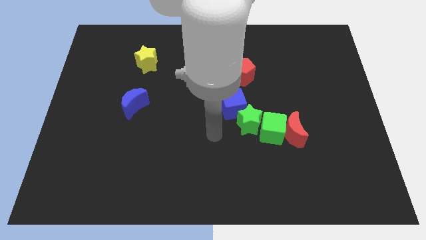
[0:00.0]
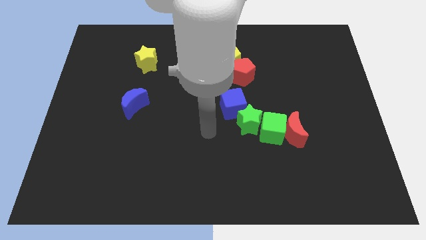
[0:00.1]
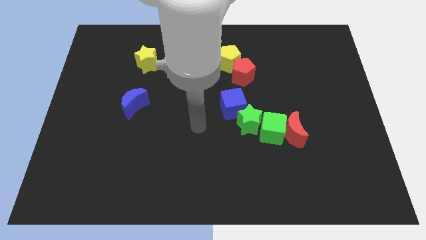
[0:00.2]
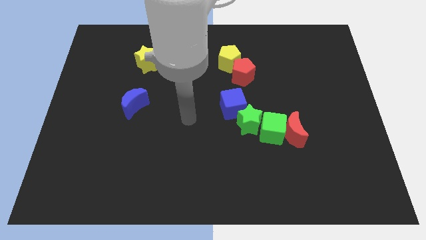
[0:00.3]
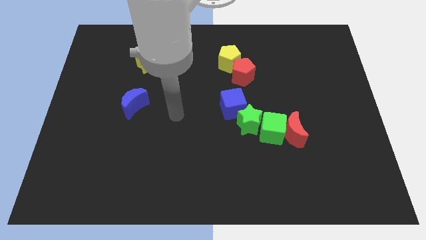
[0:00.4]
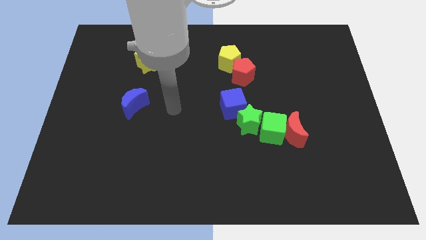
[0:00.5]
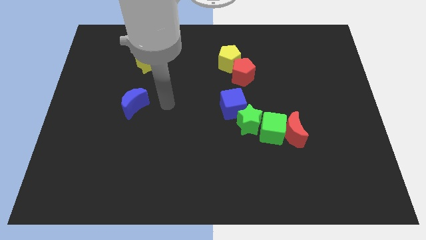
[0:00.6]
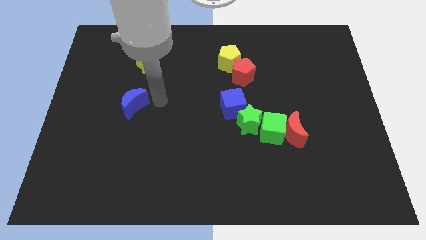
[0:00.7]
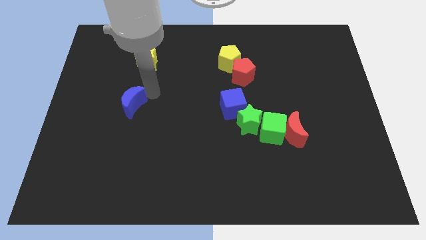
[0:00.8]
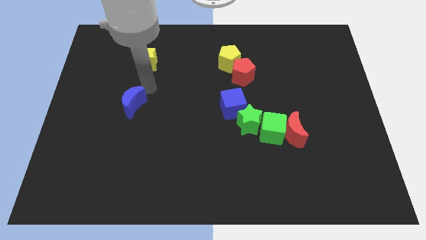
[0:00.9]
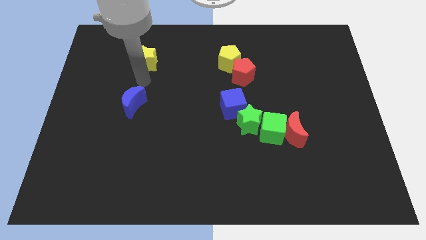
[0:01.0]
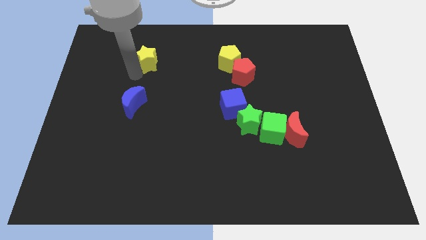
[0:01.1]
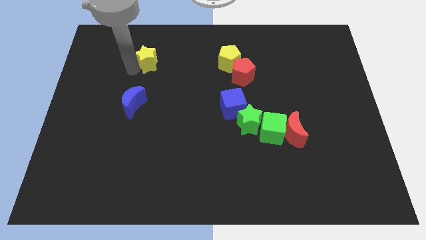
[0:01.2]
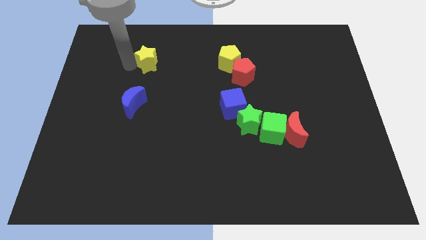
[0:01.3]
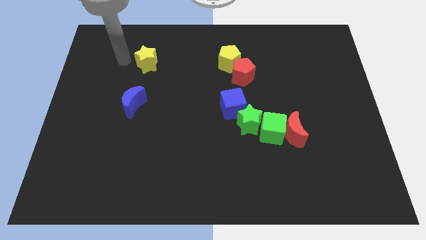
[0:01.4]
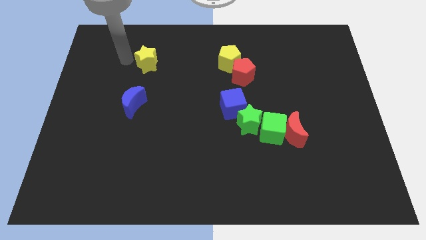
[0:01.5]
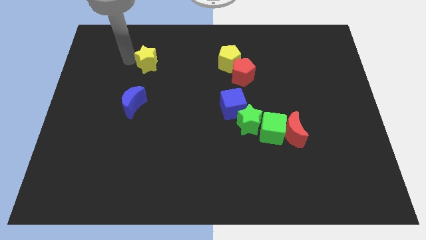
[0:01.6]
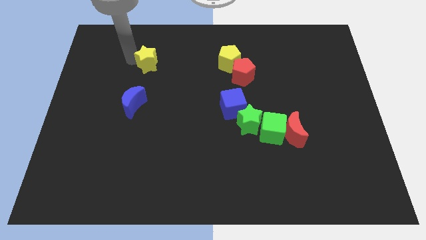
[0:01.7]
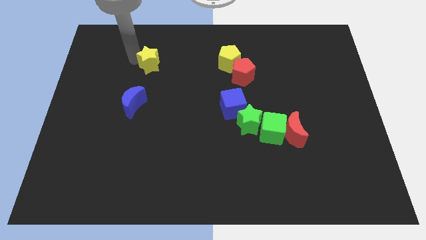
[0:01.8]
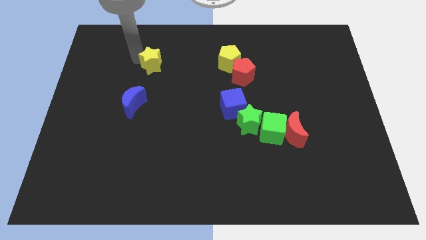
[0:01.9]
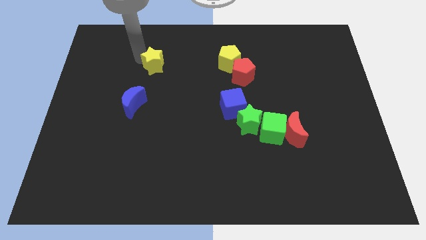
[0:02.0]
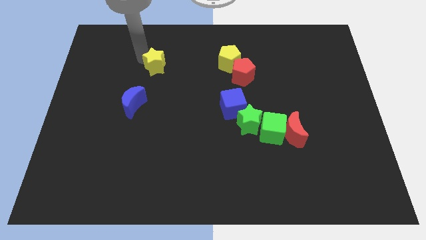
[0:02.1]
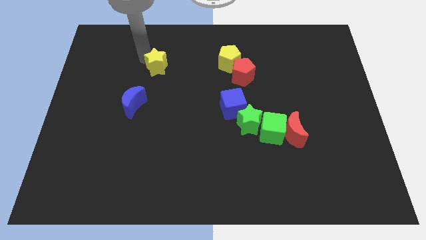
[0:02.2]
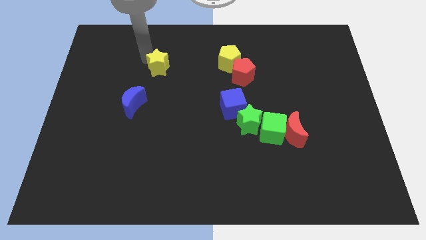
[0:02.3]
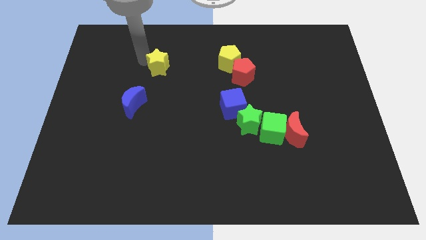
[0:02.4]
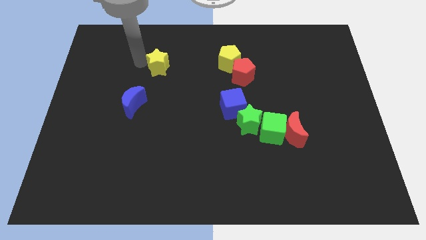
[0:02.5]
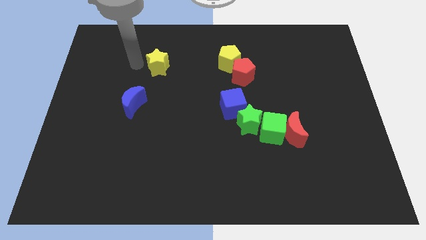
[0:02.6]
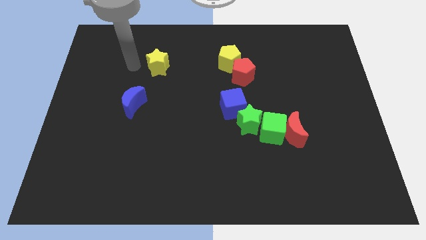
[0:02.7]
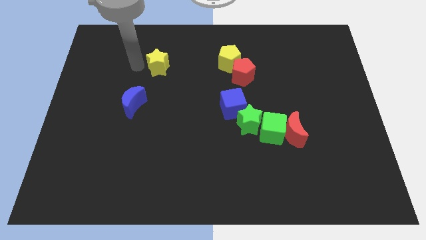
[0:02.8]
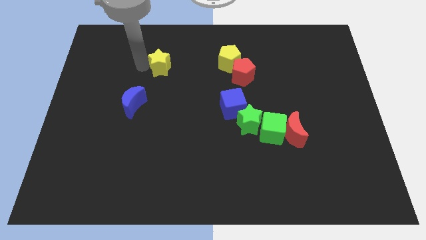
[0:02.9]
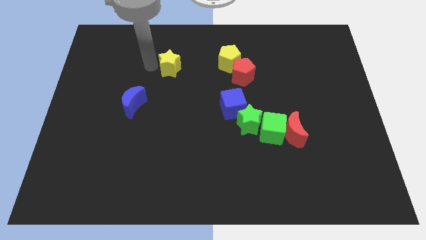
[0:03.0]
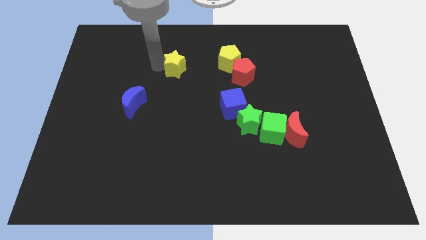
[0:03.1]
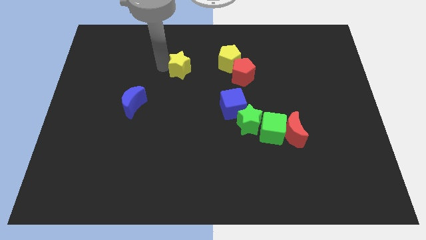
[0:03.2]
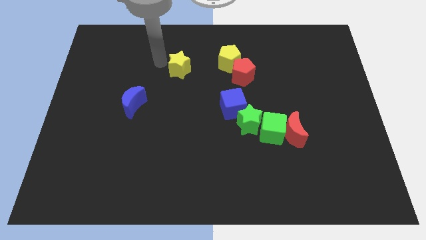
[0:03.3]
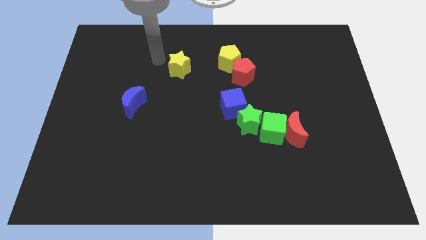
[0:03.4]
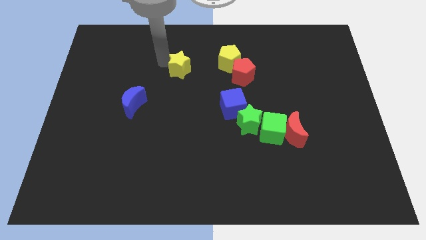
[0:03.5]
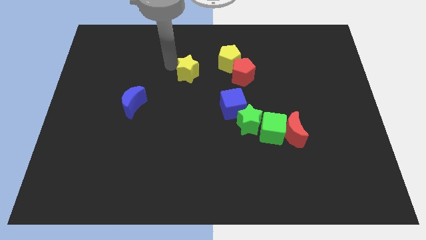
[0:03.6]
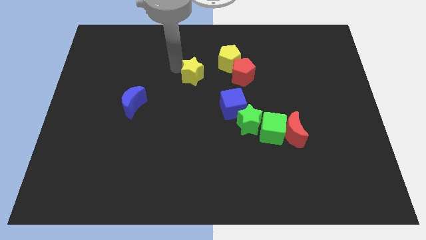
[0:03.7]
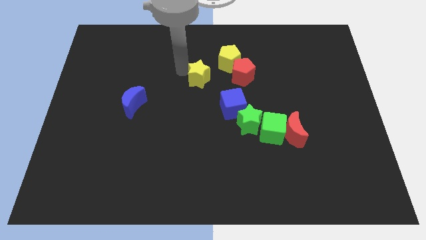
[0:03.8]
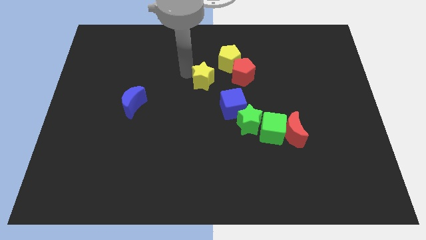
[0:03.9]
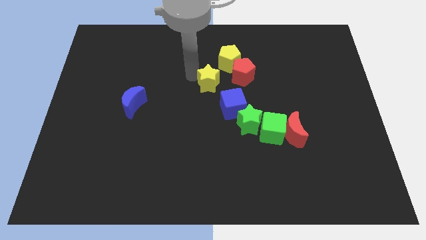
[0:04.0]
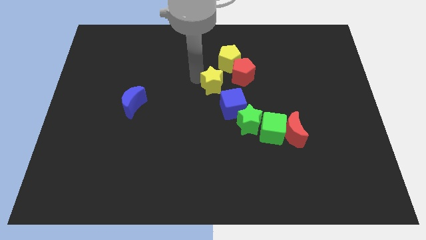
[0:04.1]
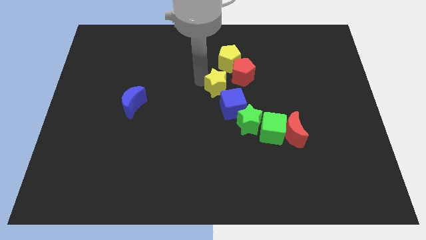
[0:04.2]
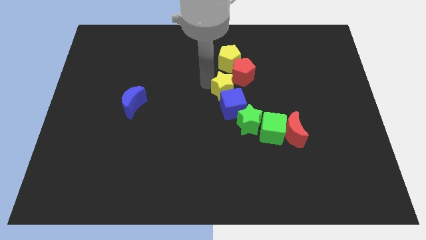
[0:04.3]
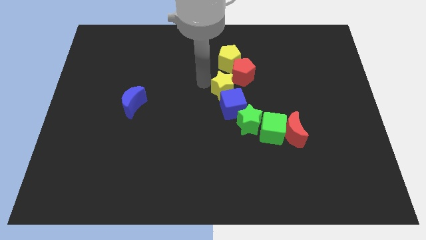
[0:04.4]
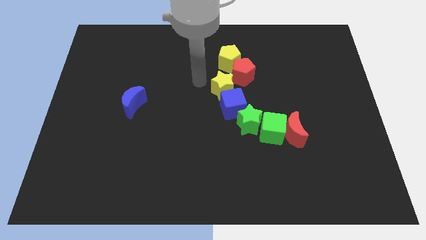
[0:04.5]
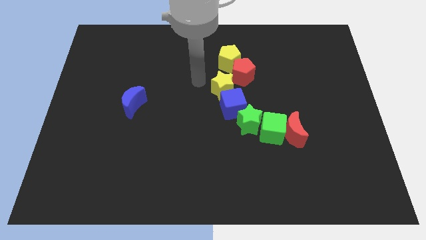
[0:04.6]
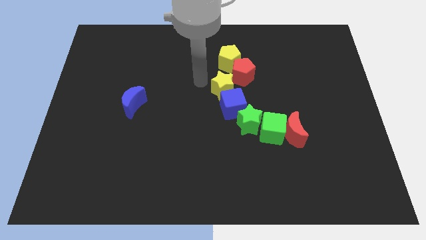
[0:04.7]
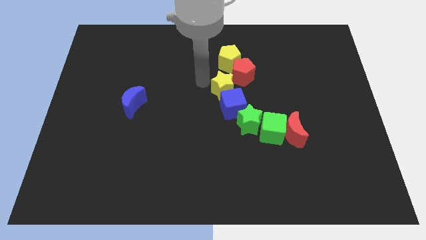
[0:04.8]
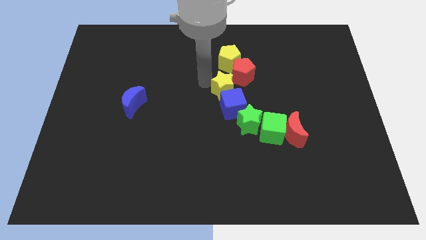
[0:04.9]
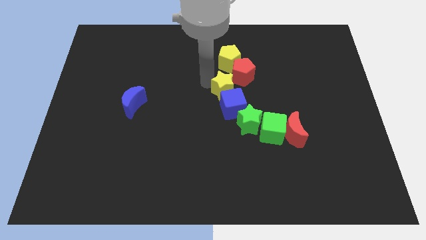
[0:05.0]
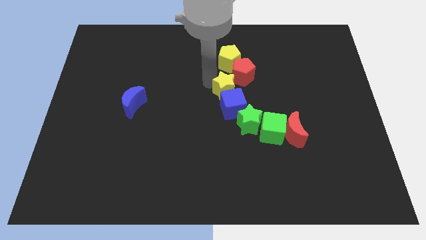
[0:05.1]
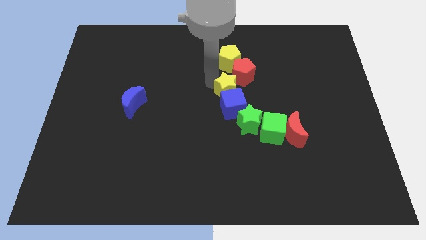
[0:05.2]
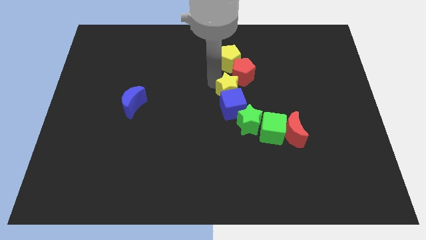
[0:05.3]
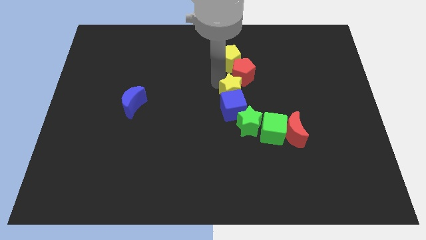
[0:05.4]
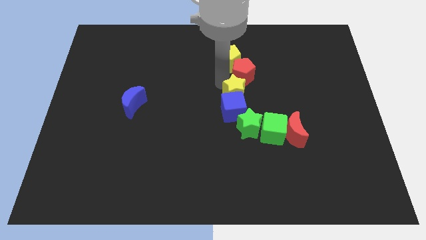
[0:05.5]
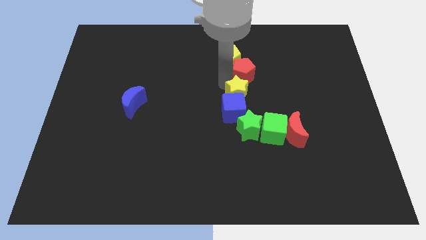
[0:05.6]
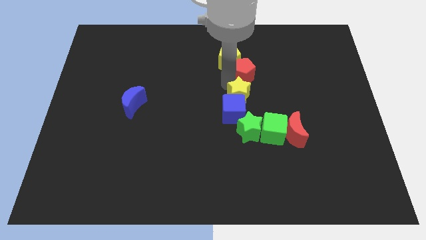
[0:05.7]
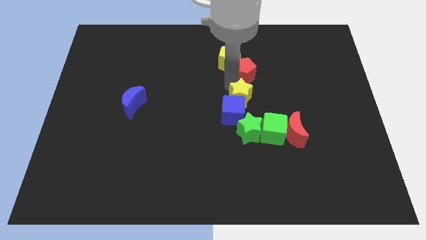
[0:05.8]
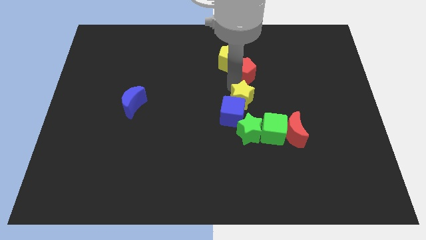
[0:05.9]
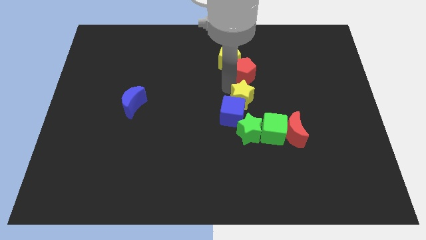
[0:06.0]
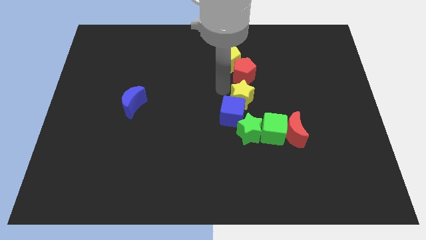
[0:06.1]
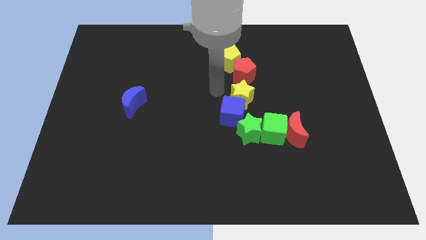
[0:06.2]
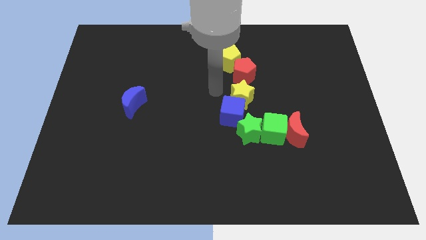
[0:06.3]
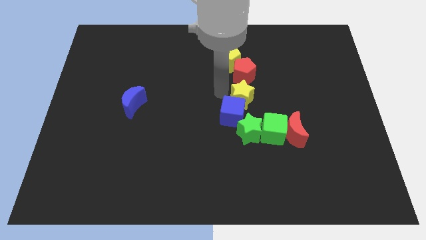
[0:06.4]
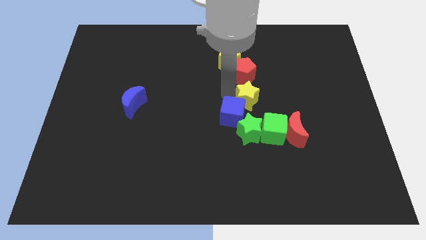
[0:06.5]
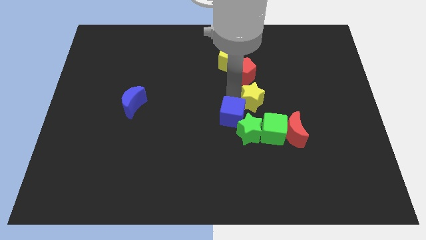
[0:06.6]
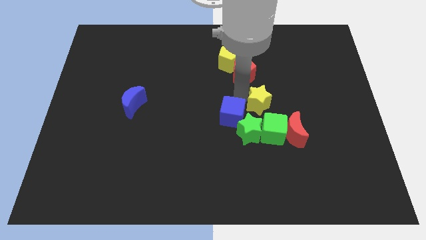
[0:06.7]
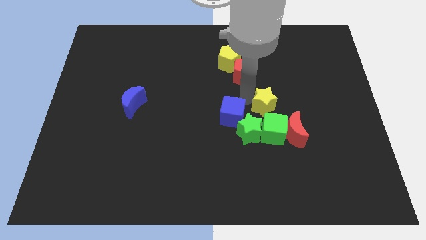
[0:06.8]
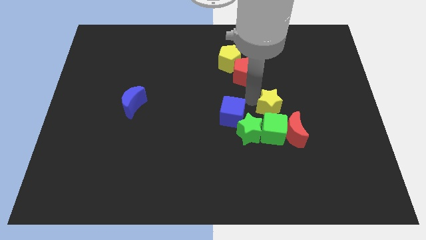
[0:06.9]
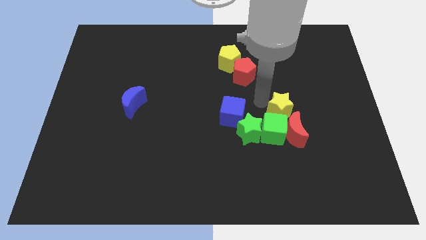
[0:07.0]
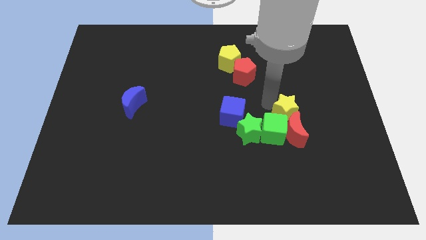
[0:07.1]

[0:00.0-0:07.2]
slide the yellow star close to the red moon
